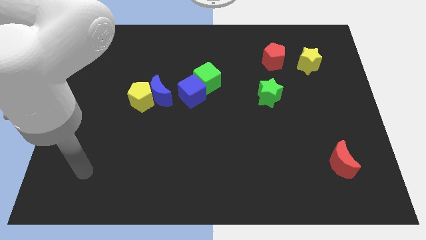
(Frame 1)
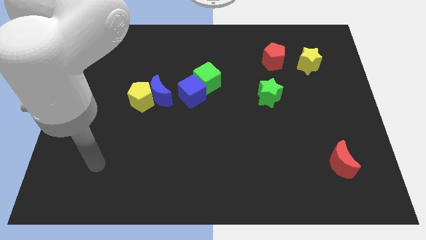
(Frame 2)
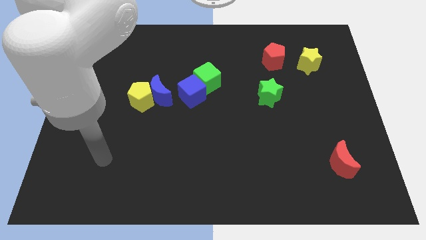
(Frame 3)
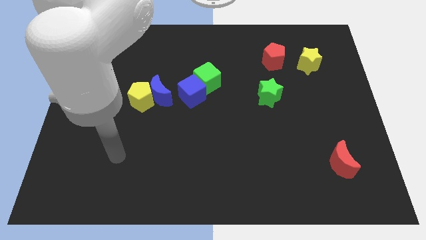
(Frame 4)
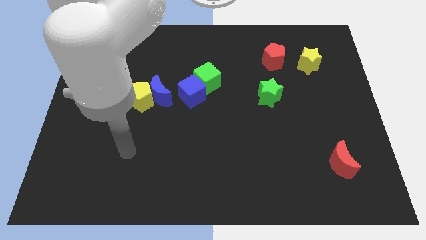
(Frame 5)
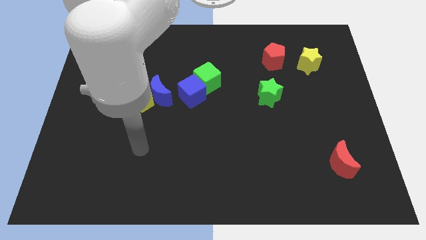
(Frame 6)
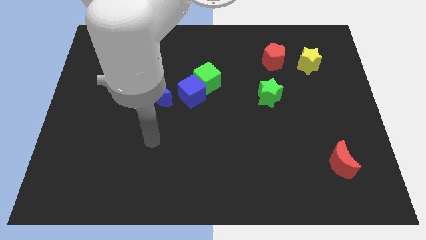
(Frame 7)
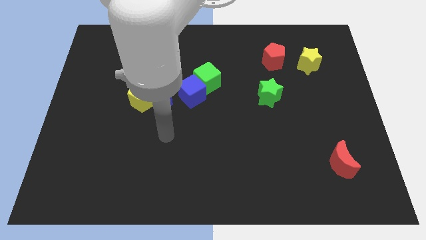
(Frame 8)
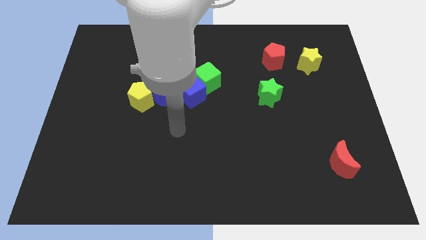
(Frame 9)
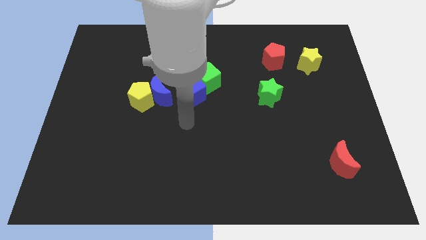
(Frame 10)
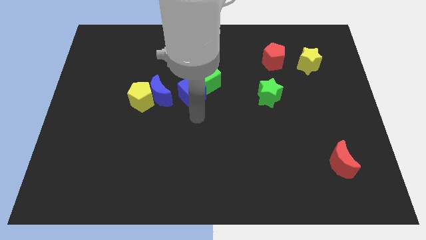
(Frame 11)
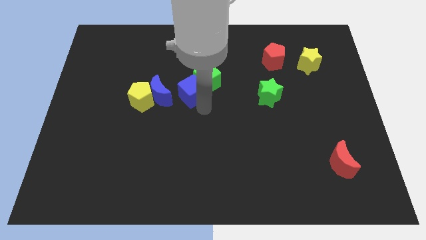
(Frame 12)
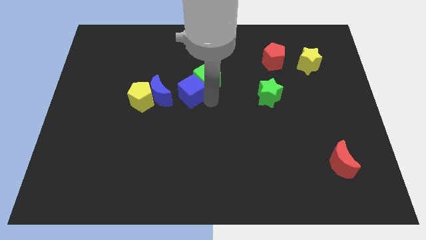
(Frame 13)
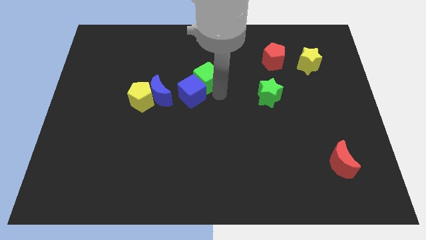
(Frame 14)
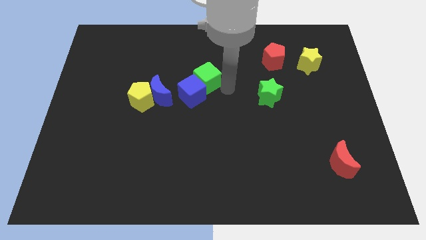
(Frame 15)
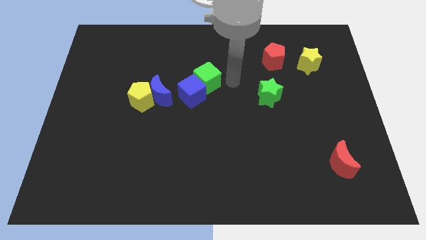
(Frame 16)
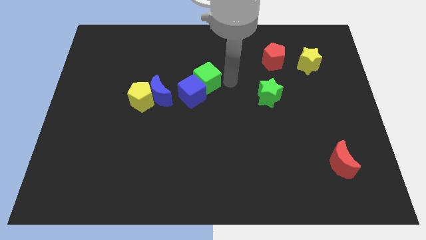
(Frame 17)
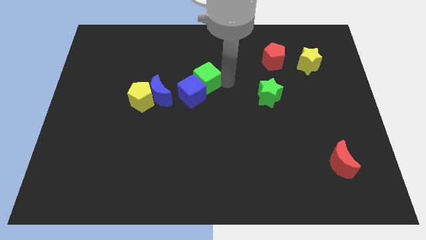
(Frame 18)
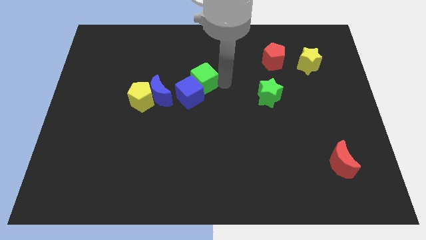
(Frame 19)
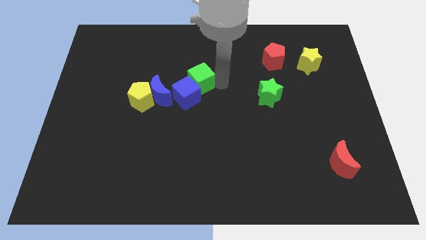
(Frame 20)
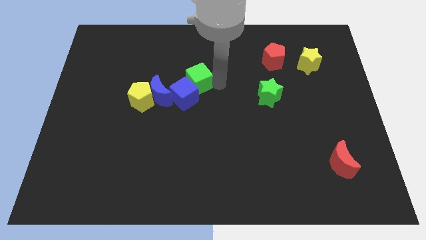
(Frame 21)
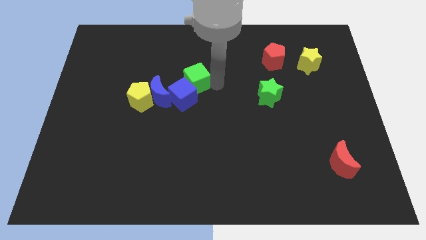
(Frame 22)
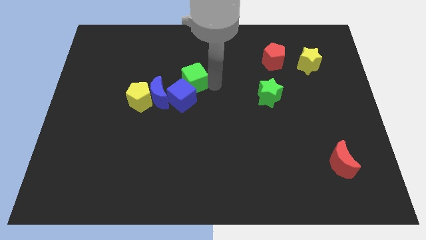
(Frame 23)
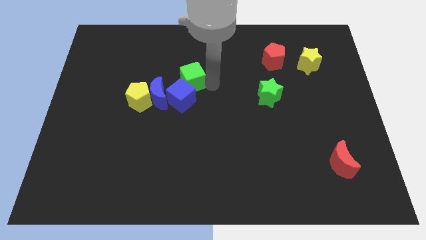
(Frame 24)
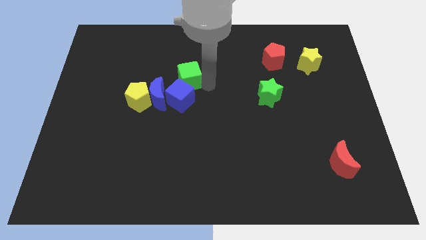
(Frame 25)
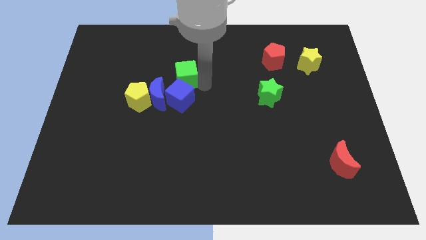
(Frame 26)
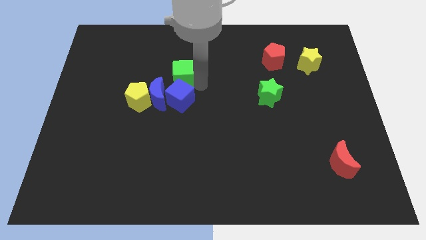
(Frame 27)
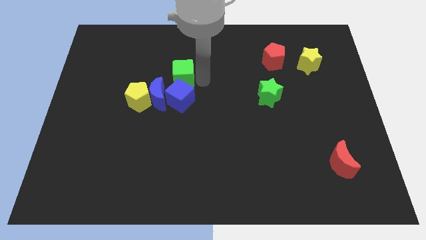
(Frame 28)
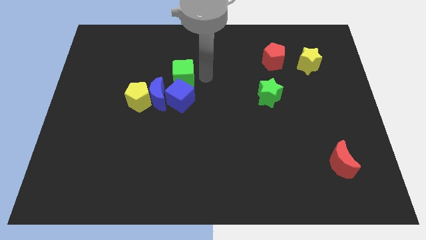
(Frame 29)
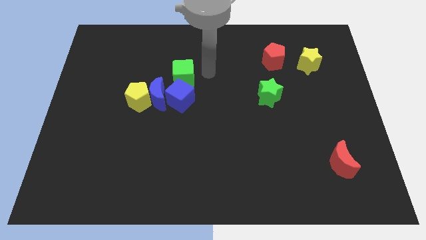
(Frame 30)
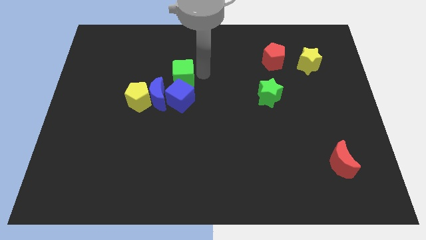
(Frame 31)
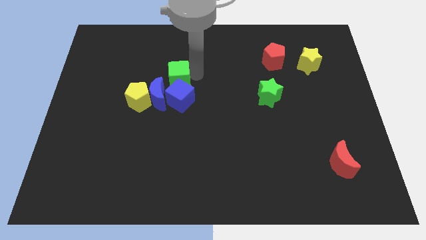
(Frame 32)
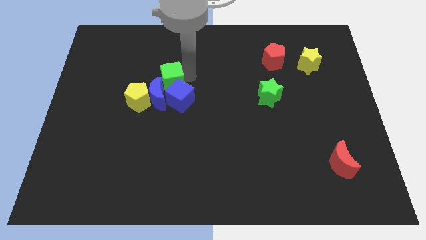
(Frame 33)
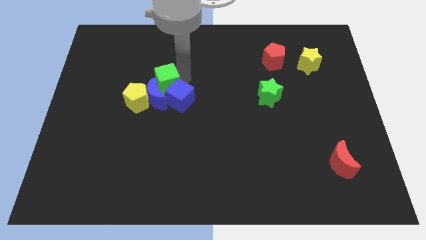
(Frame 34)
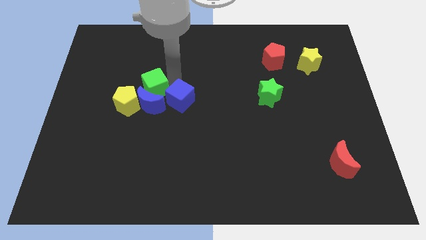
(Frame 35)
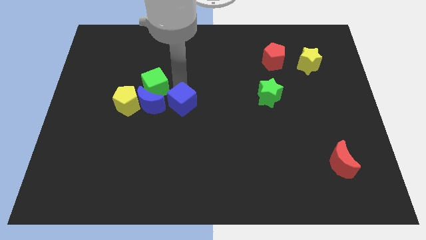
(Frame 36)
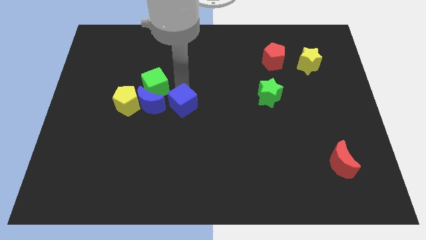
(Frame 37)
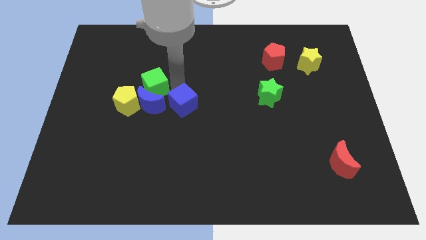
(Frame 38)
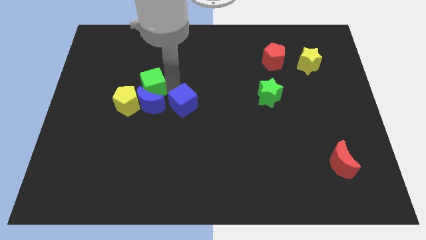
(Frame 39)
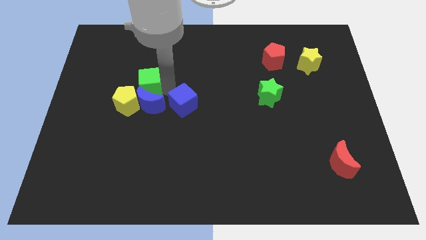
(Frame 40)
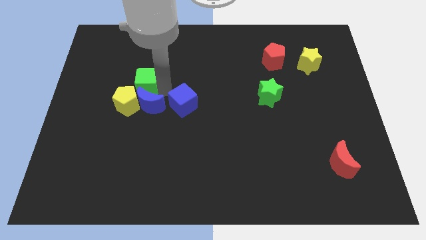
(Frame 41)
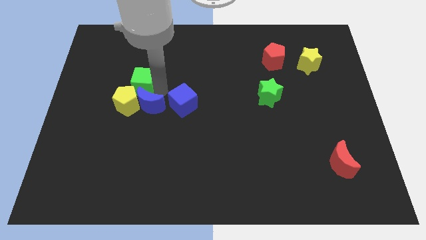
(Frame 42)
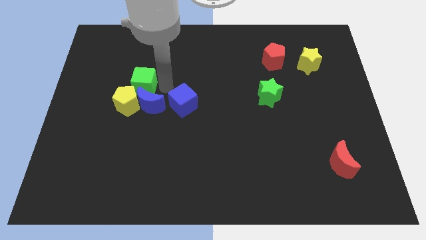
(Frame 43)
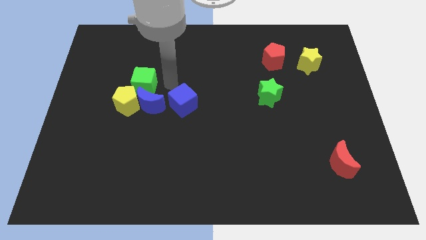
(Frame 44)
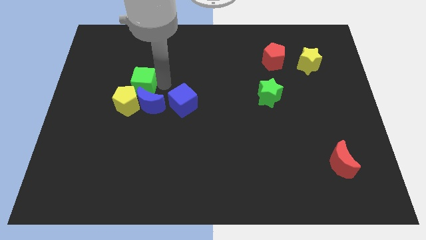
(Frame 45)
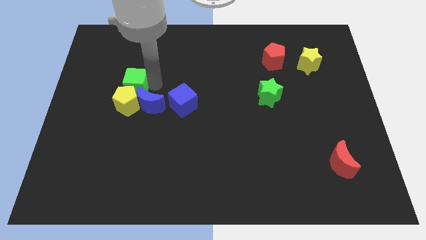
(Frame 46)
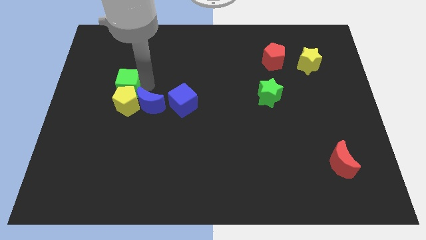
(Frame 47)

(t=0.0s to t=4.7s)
push the green cube to the top left of the yellow pentagon

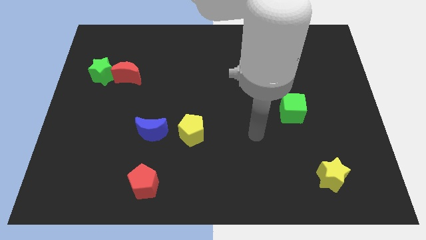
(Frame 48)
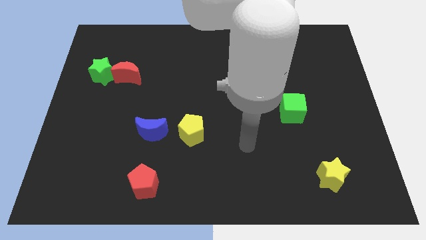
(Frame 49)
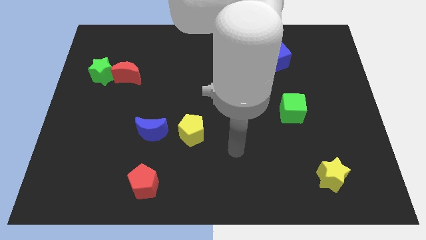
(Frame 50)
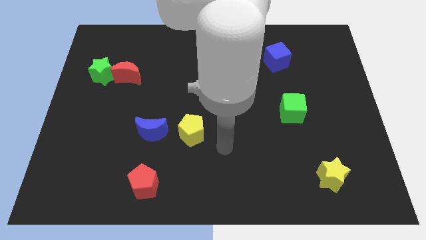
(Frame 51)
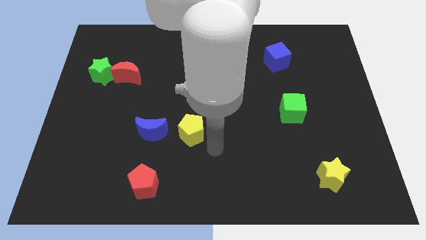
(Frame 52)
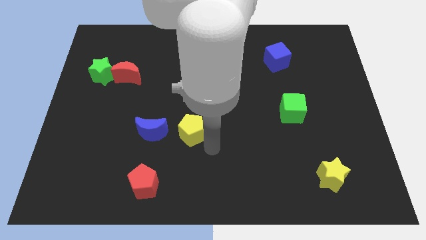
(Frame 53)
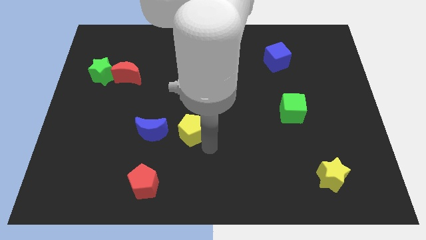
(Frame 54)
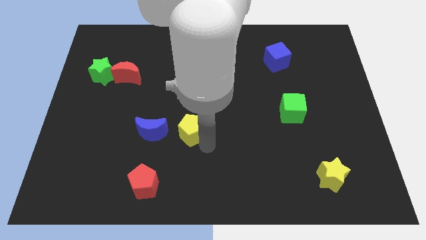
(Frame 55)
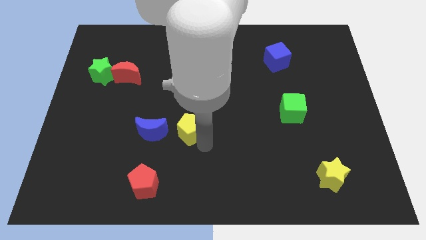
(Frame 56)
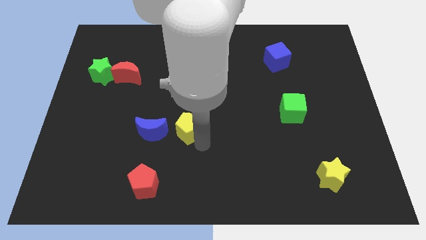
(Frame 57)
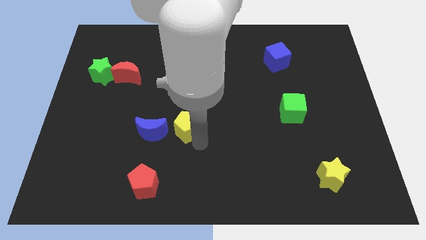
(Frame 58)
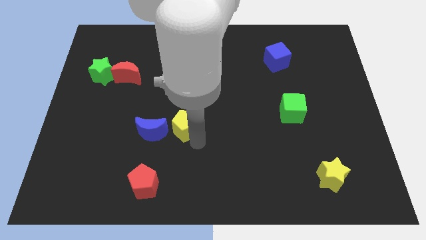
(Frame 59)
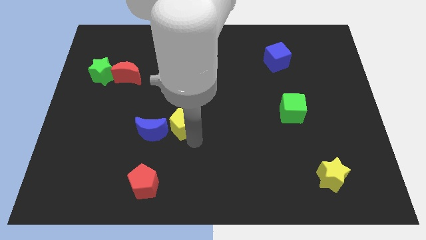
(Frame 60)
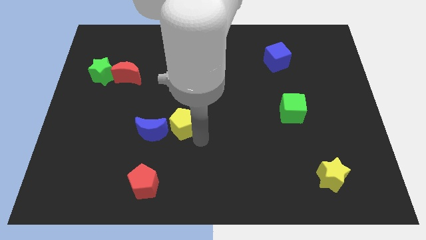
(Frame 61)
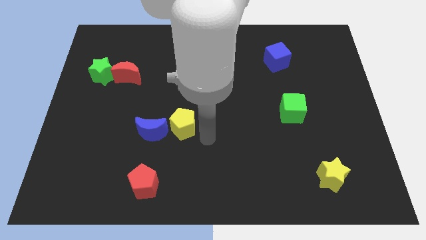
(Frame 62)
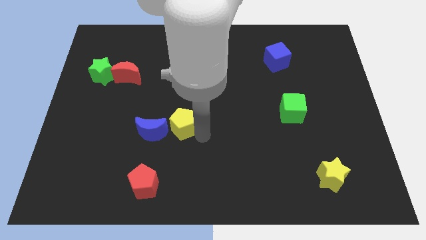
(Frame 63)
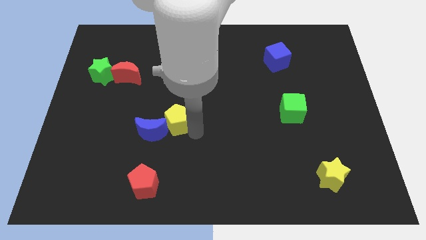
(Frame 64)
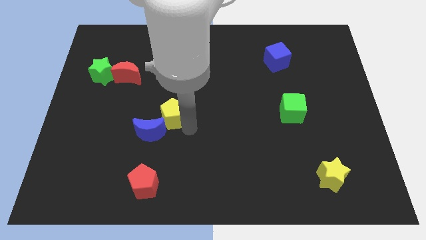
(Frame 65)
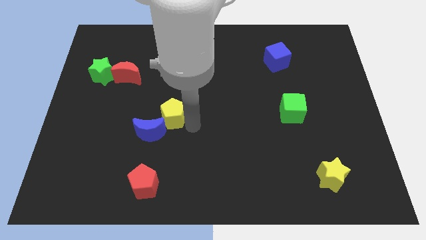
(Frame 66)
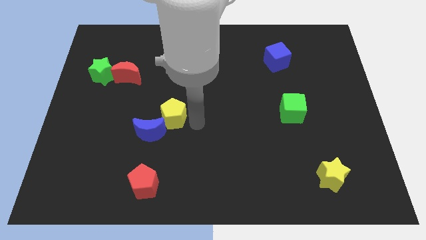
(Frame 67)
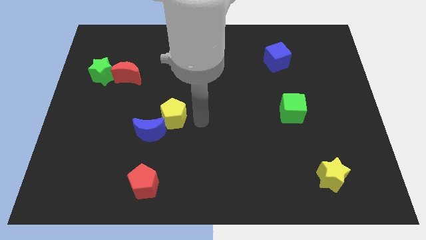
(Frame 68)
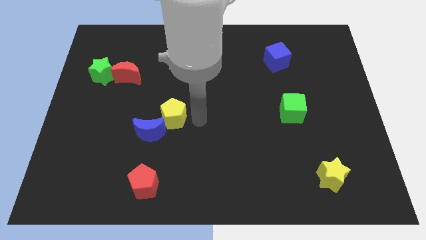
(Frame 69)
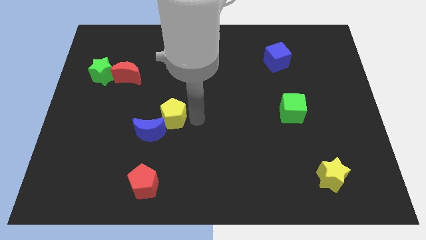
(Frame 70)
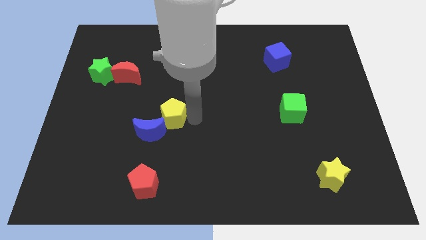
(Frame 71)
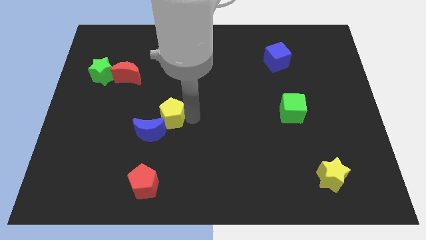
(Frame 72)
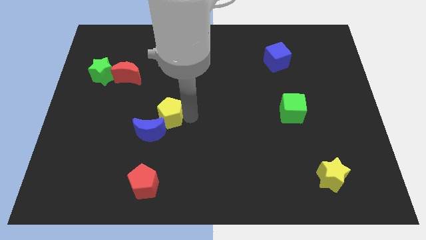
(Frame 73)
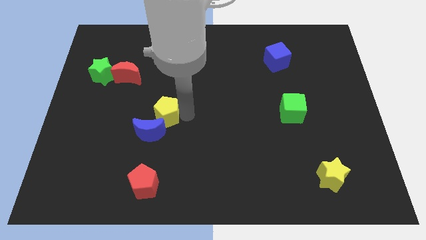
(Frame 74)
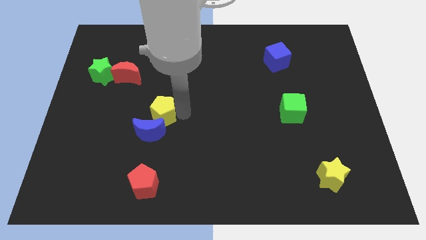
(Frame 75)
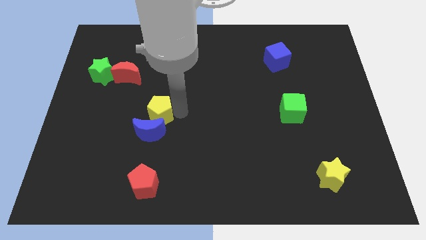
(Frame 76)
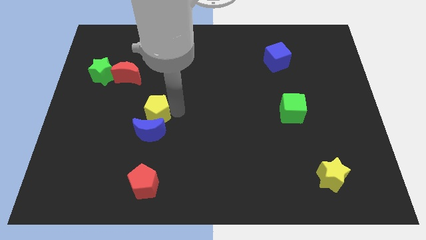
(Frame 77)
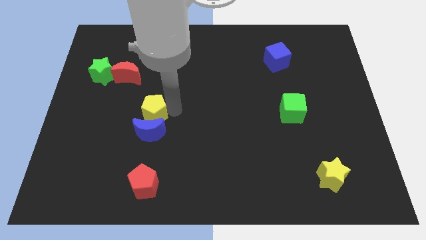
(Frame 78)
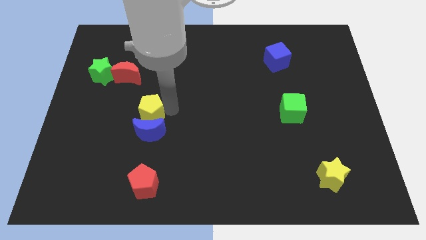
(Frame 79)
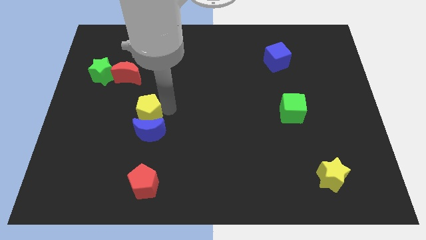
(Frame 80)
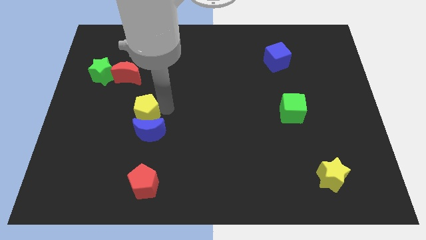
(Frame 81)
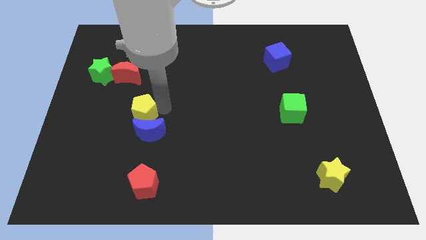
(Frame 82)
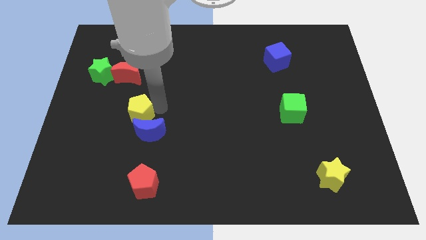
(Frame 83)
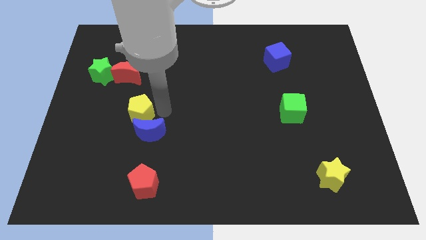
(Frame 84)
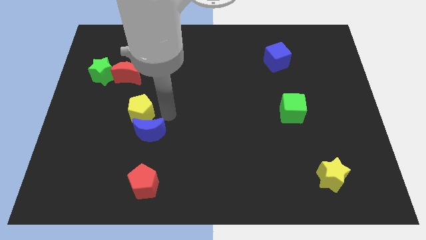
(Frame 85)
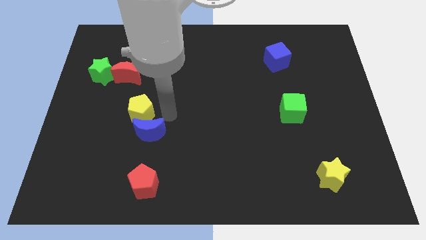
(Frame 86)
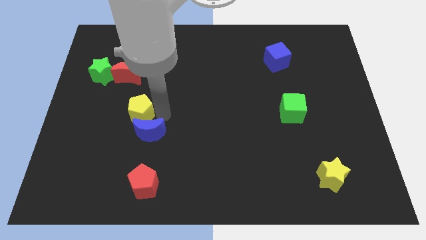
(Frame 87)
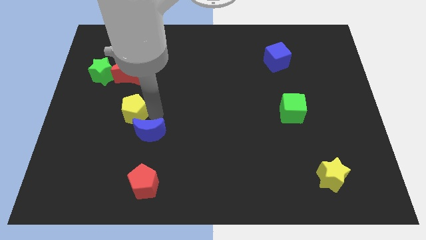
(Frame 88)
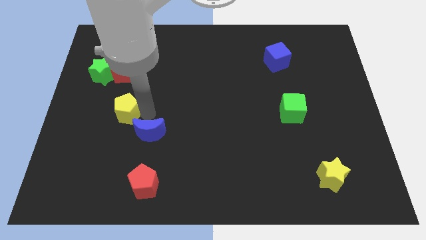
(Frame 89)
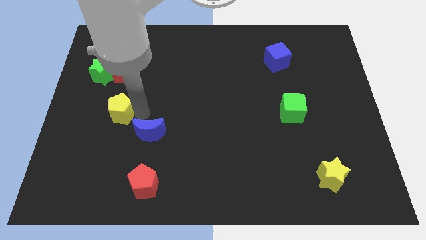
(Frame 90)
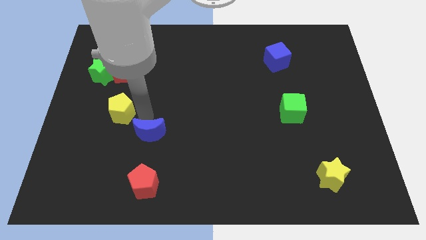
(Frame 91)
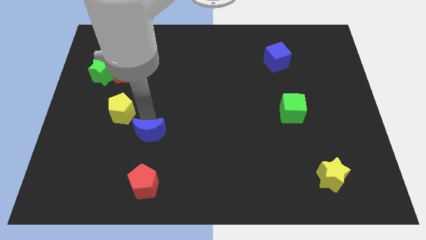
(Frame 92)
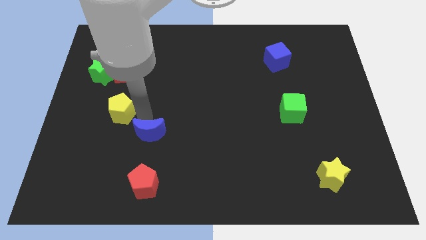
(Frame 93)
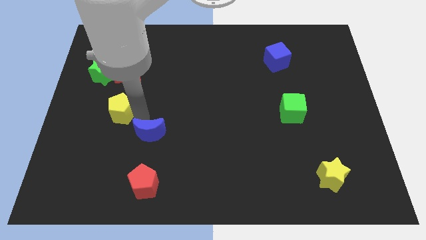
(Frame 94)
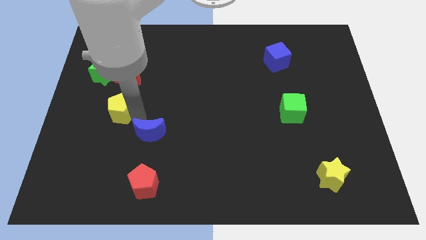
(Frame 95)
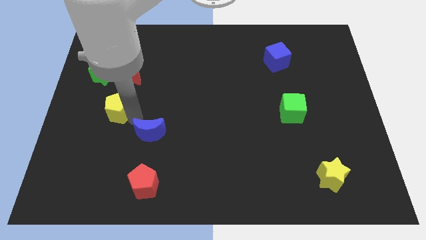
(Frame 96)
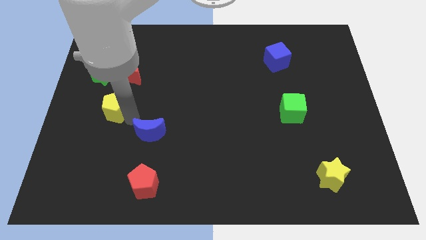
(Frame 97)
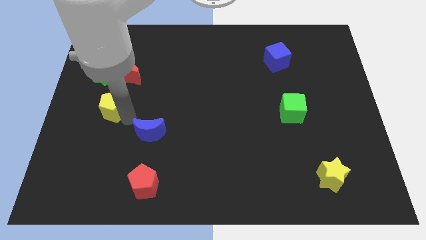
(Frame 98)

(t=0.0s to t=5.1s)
put the yellow pentagon to the bottom side of the green star
